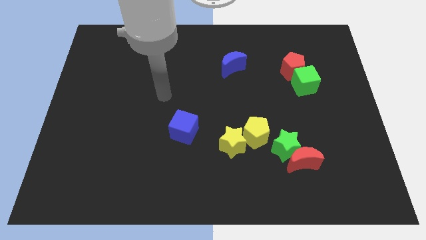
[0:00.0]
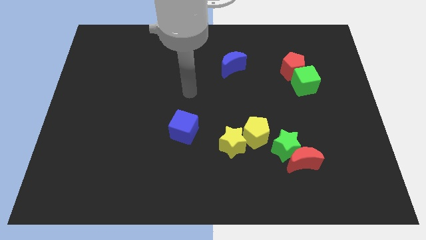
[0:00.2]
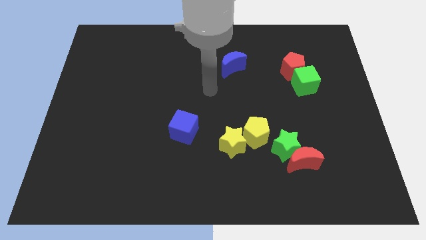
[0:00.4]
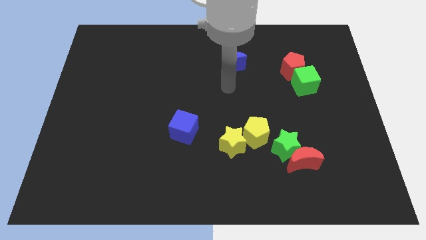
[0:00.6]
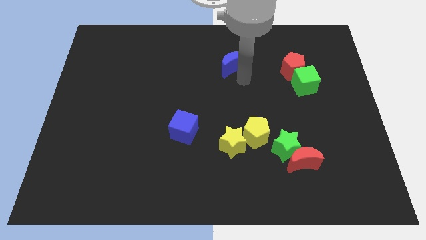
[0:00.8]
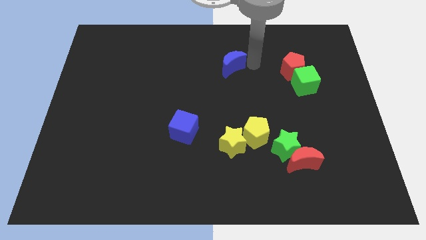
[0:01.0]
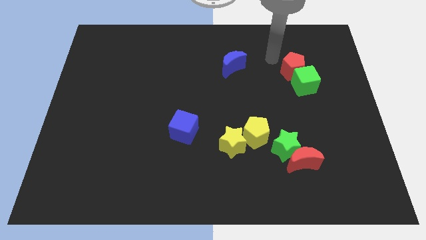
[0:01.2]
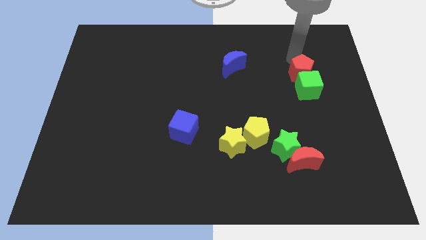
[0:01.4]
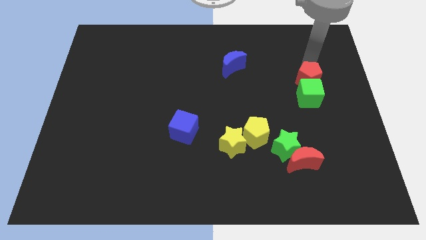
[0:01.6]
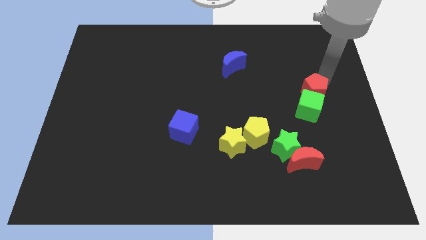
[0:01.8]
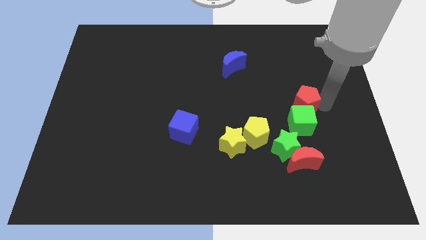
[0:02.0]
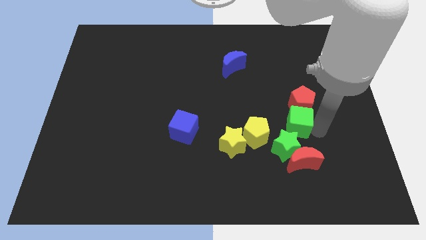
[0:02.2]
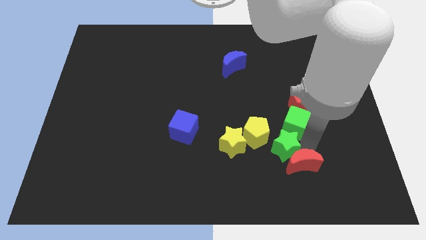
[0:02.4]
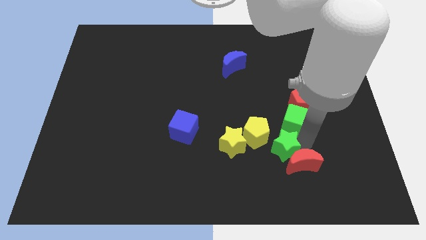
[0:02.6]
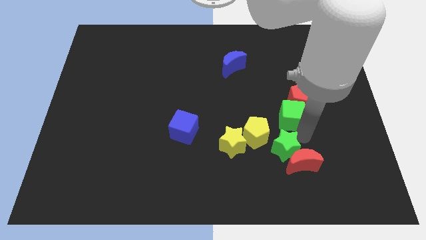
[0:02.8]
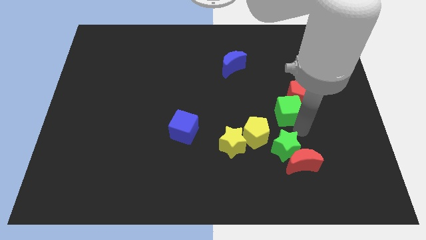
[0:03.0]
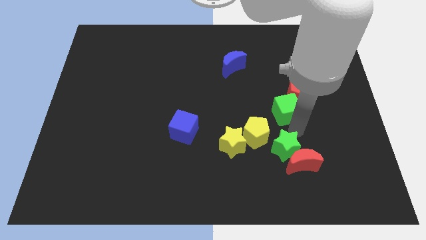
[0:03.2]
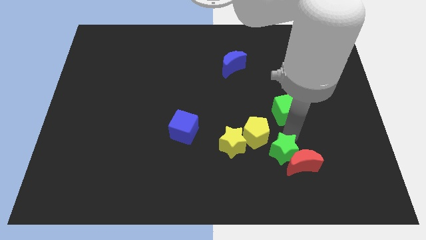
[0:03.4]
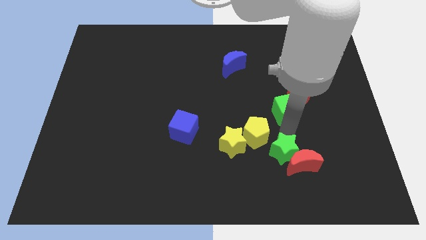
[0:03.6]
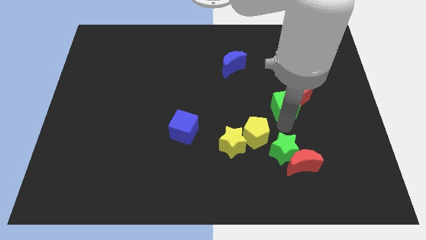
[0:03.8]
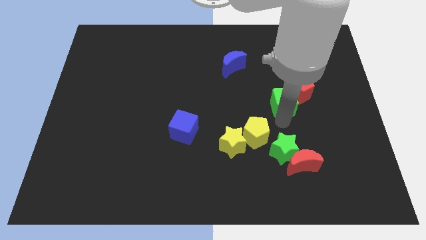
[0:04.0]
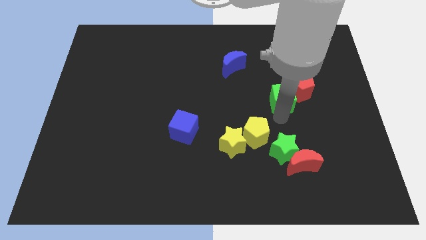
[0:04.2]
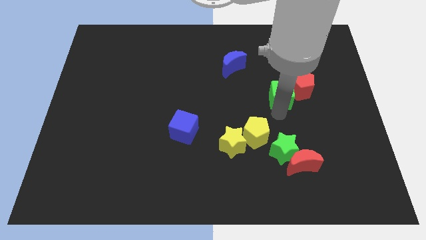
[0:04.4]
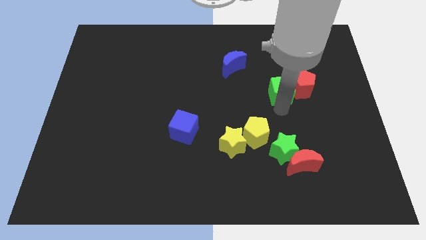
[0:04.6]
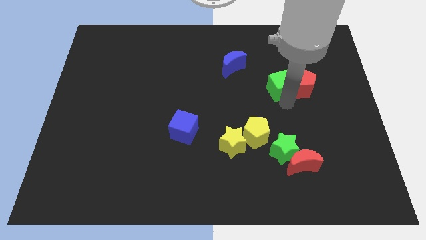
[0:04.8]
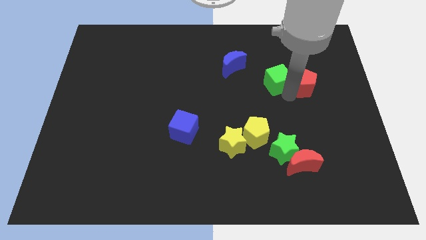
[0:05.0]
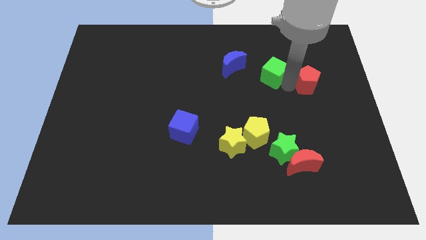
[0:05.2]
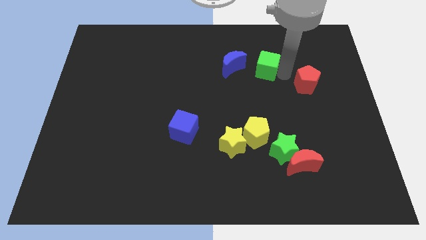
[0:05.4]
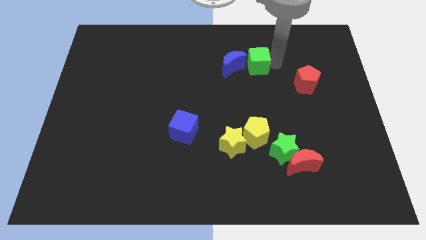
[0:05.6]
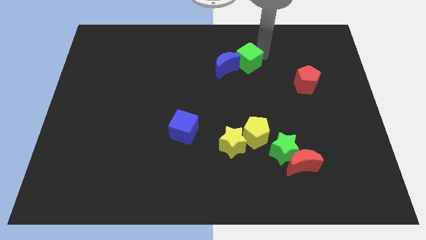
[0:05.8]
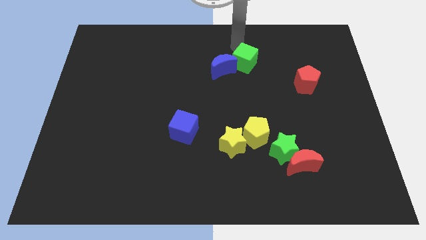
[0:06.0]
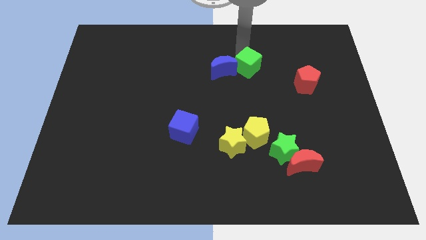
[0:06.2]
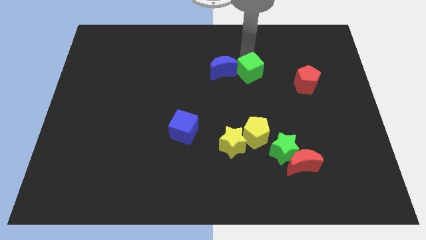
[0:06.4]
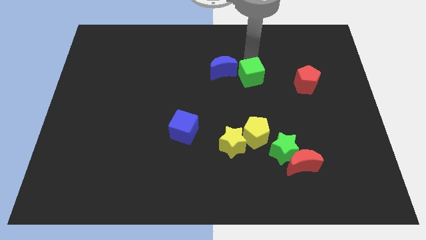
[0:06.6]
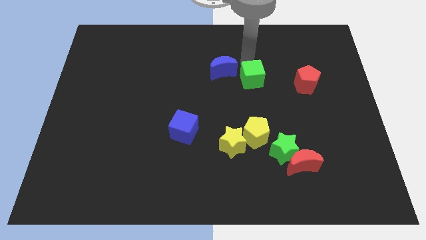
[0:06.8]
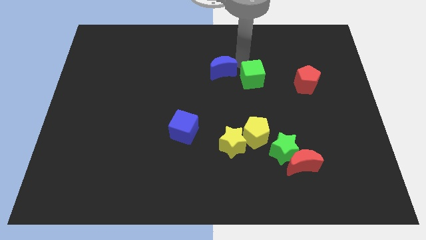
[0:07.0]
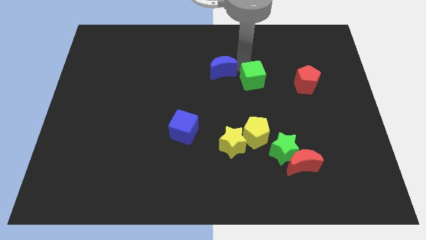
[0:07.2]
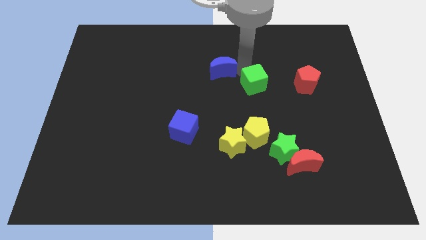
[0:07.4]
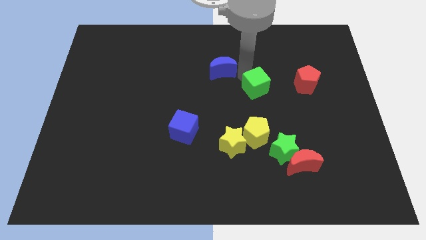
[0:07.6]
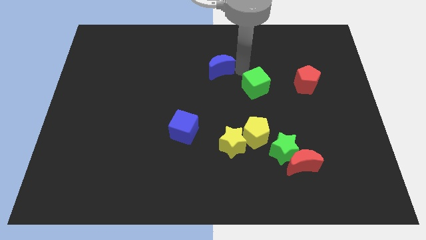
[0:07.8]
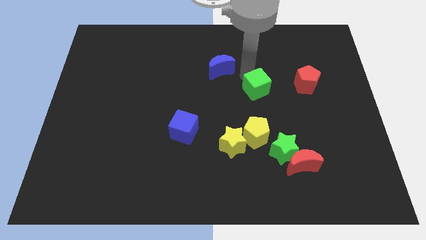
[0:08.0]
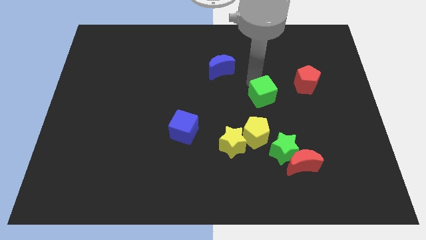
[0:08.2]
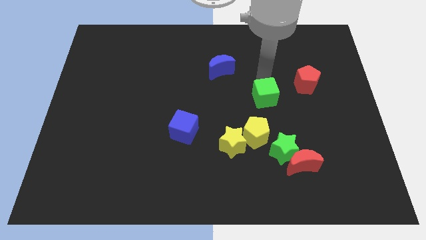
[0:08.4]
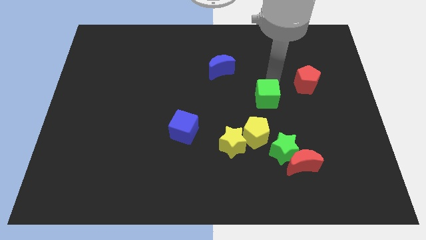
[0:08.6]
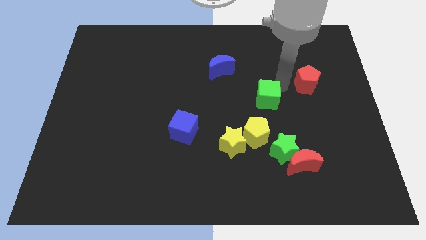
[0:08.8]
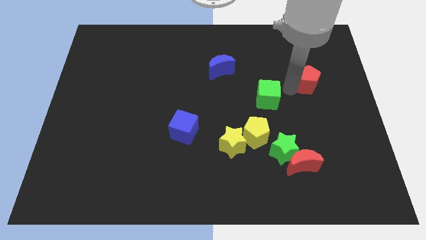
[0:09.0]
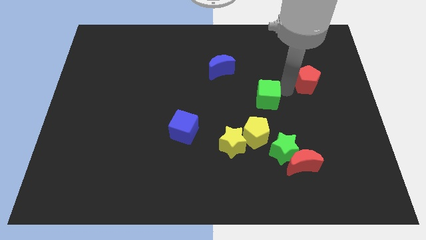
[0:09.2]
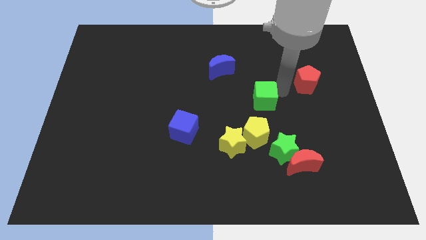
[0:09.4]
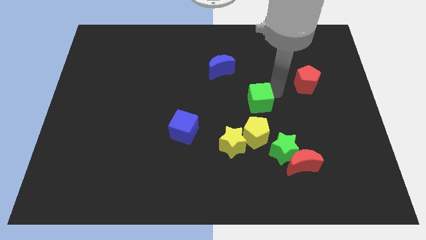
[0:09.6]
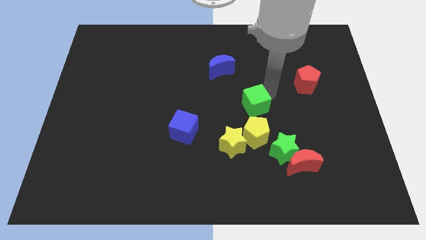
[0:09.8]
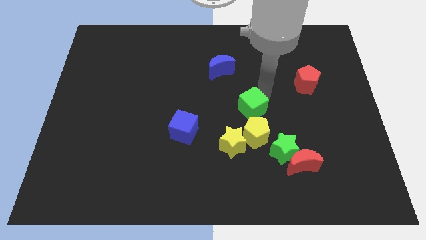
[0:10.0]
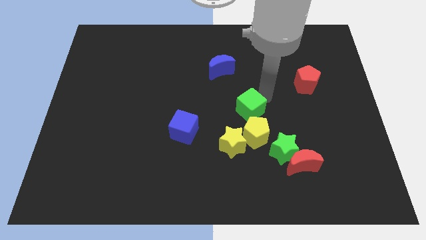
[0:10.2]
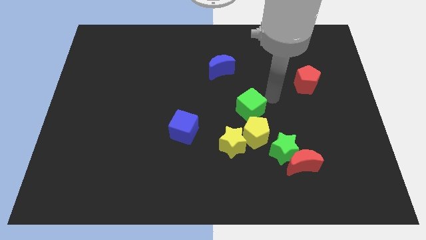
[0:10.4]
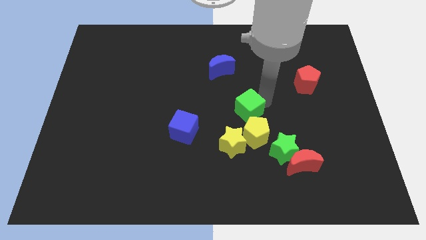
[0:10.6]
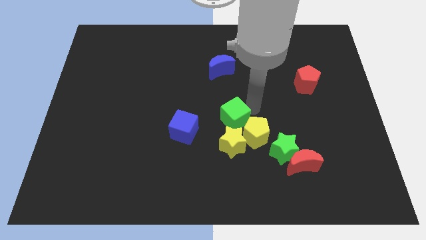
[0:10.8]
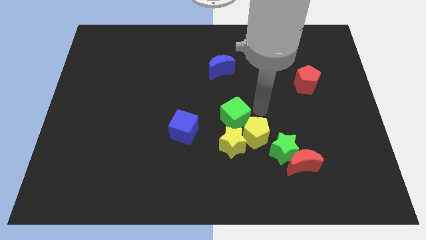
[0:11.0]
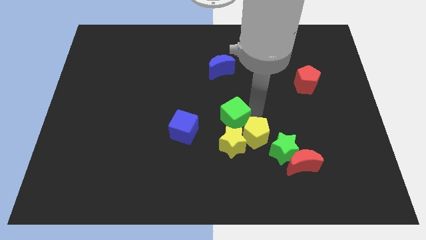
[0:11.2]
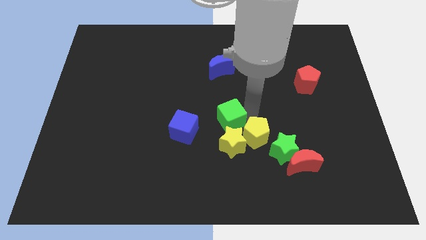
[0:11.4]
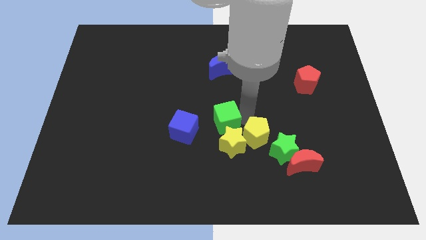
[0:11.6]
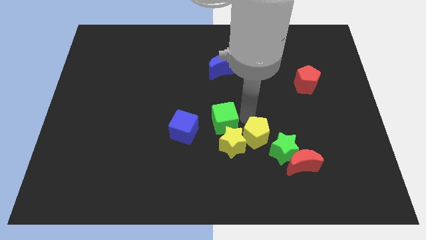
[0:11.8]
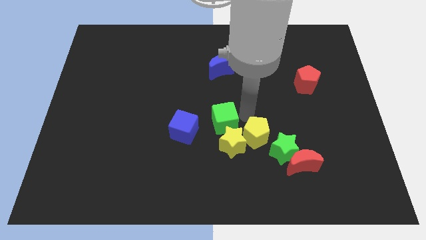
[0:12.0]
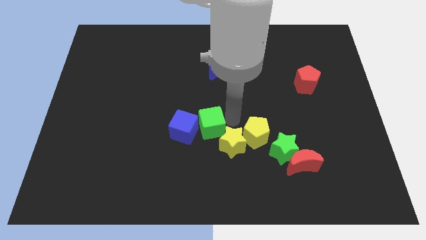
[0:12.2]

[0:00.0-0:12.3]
slide the green cube towards the blue cube

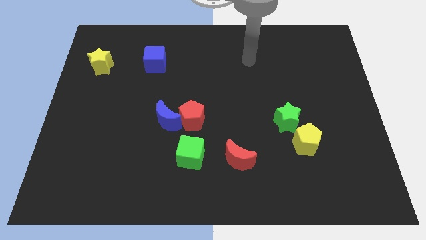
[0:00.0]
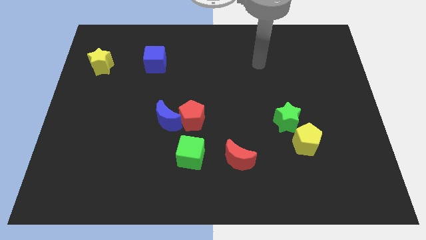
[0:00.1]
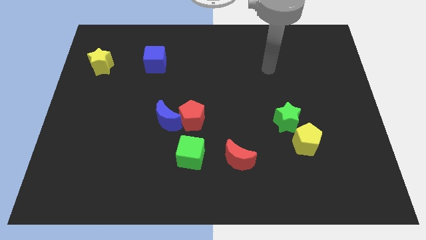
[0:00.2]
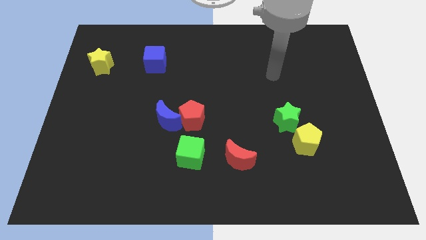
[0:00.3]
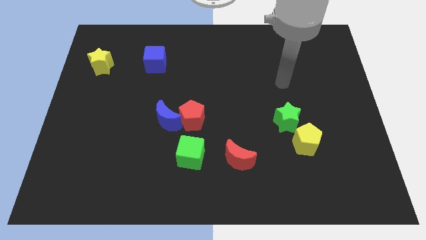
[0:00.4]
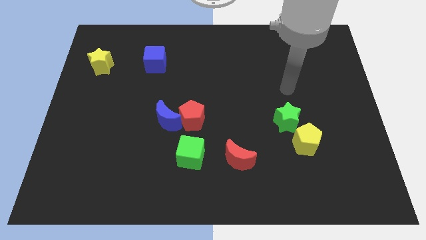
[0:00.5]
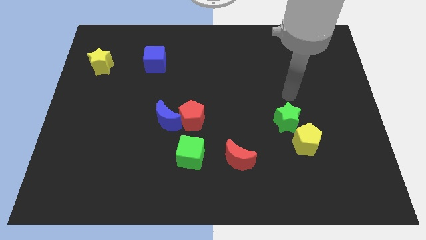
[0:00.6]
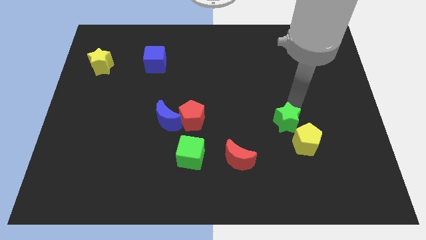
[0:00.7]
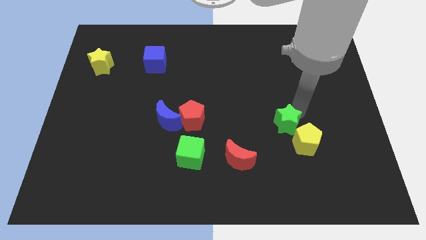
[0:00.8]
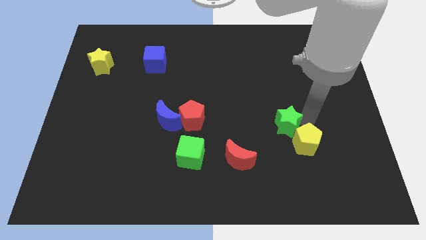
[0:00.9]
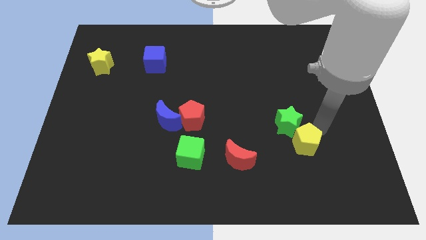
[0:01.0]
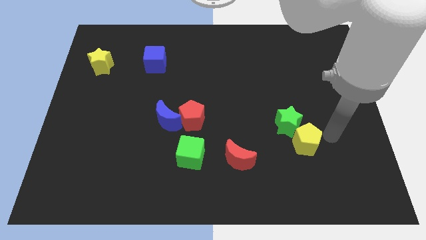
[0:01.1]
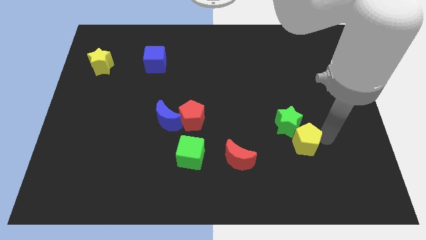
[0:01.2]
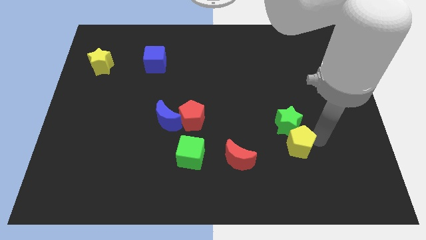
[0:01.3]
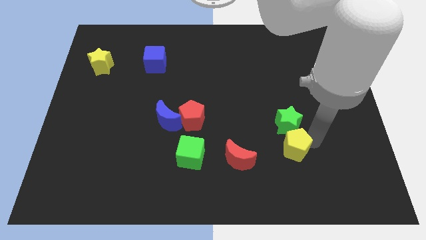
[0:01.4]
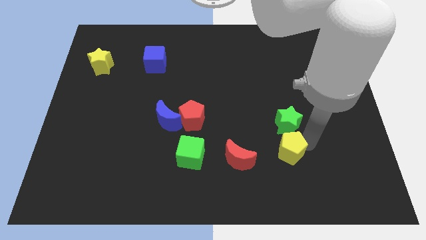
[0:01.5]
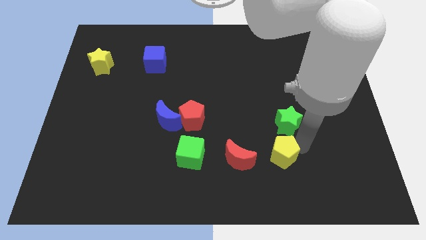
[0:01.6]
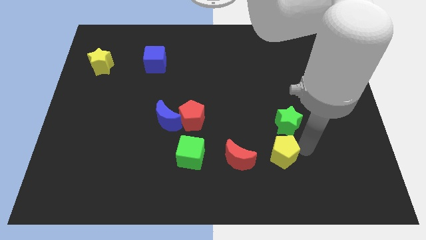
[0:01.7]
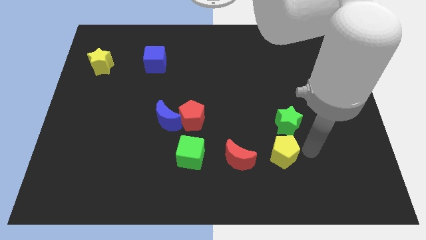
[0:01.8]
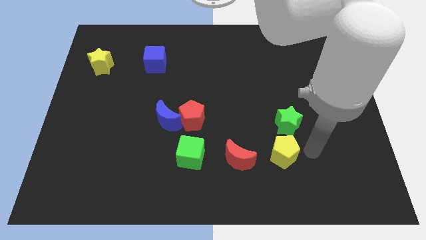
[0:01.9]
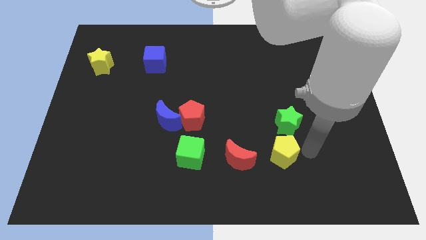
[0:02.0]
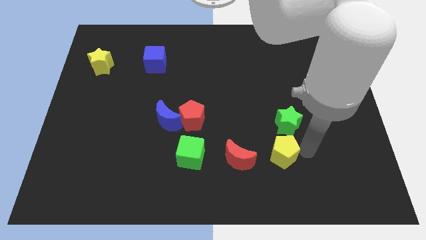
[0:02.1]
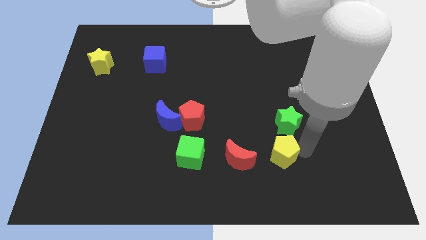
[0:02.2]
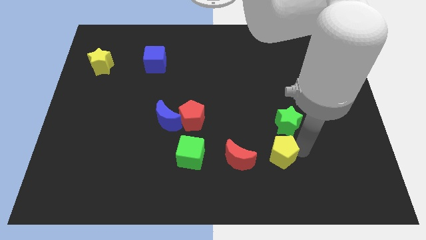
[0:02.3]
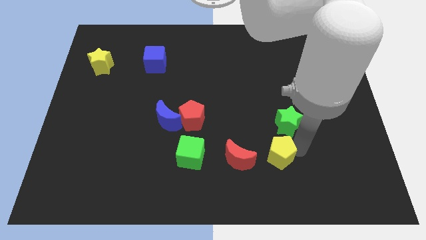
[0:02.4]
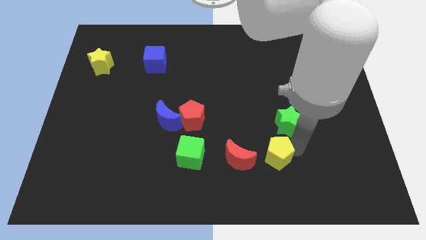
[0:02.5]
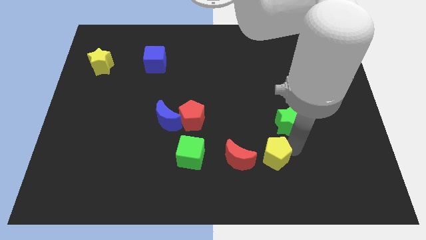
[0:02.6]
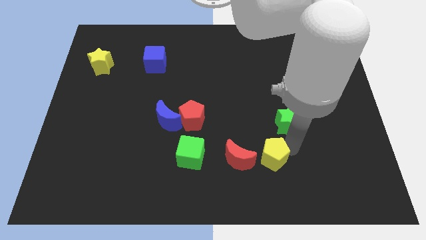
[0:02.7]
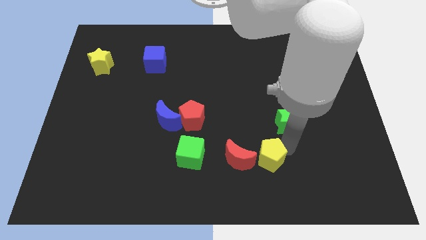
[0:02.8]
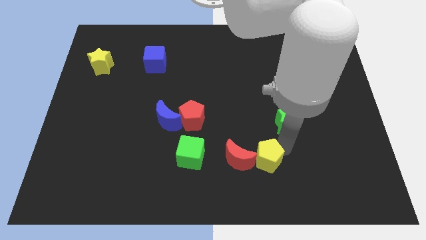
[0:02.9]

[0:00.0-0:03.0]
push the yellow pentagon towards the red moon
